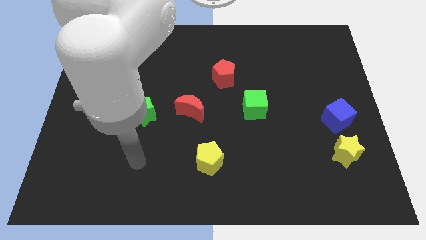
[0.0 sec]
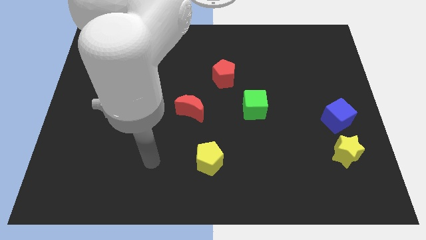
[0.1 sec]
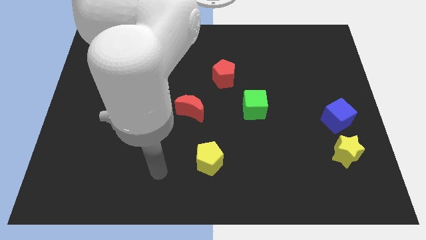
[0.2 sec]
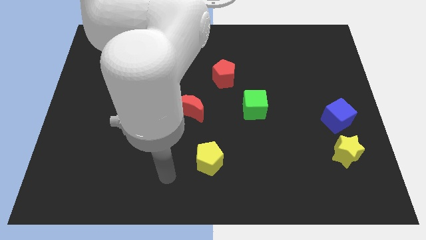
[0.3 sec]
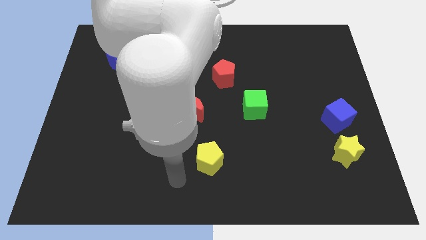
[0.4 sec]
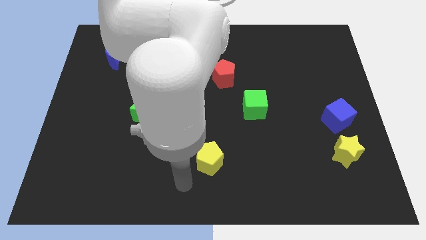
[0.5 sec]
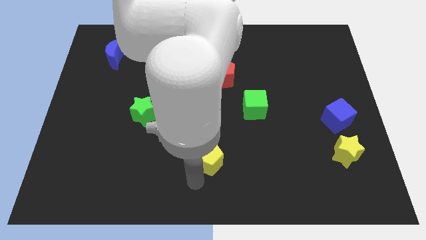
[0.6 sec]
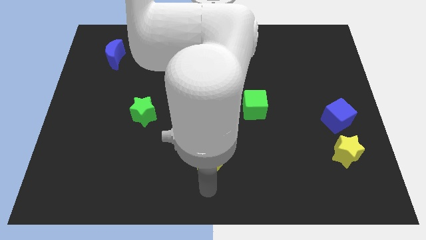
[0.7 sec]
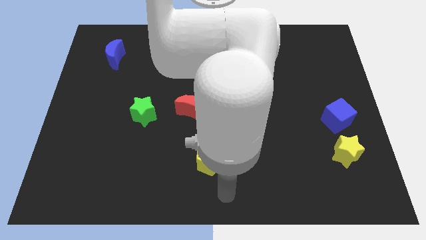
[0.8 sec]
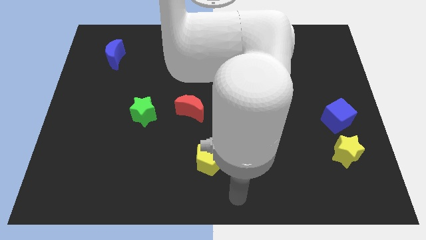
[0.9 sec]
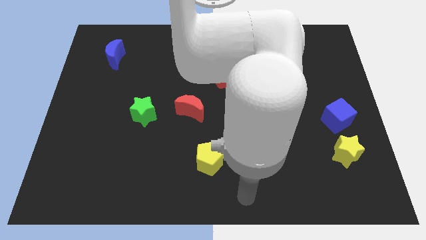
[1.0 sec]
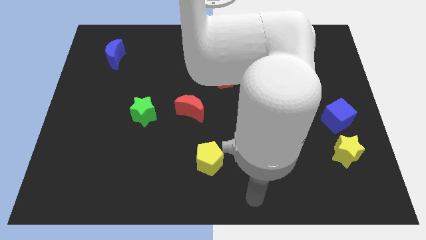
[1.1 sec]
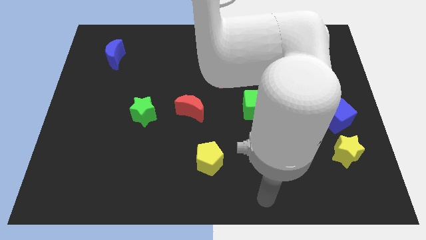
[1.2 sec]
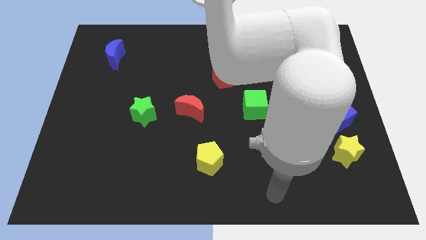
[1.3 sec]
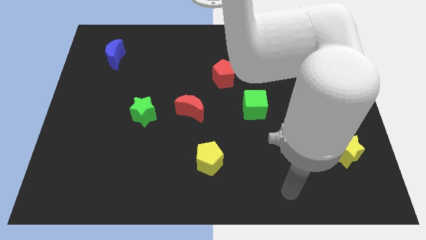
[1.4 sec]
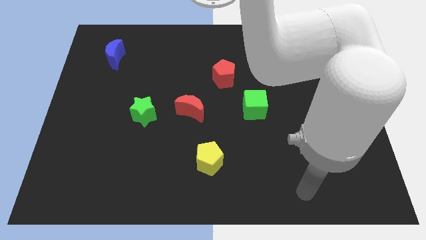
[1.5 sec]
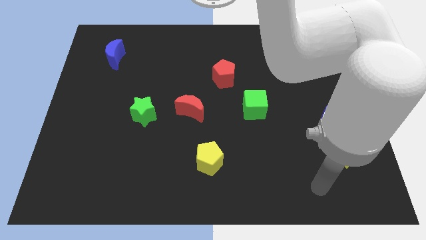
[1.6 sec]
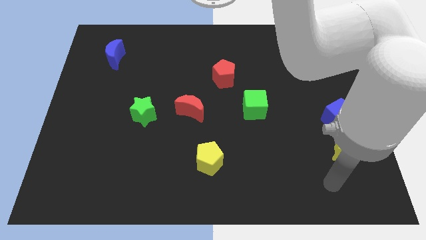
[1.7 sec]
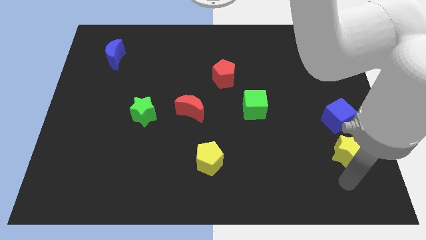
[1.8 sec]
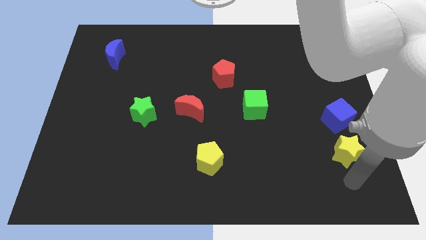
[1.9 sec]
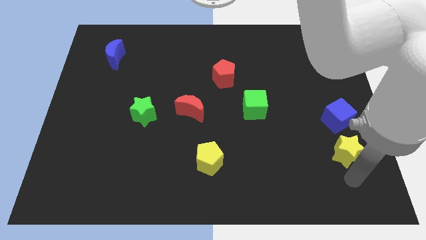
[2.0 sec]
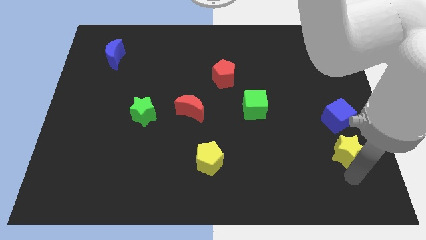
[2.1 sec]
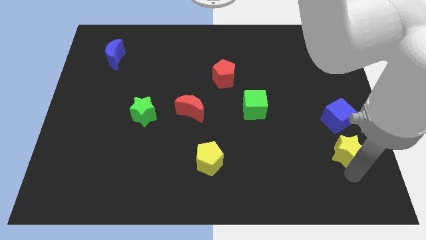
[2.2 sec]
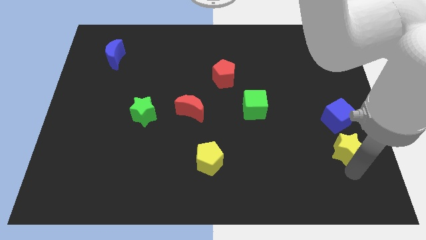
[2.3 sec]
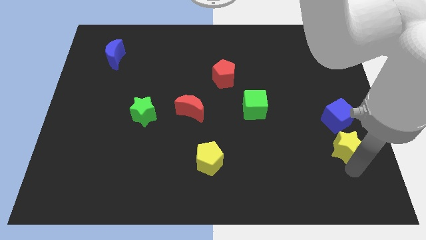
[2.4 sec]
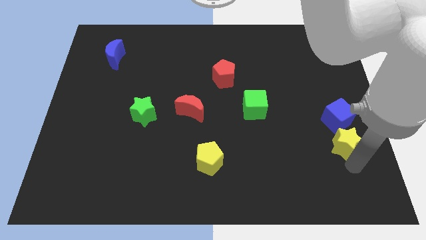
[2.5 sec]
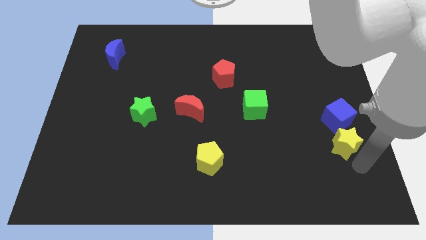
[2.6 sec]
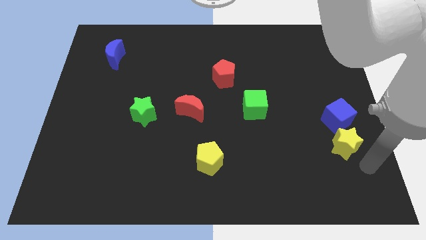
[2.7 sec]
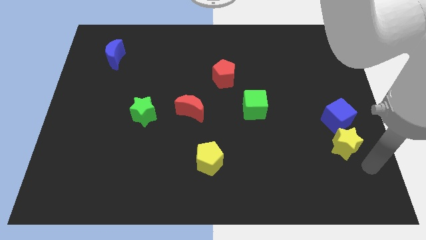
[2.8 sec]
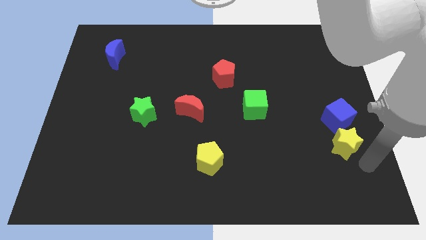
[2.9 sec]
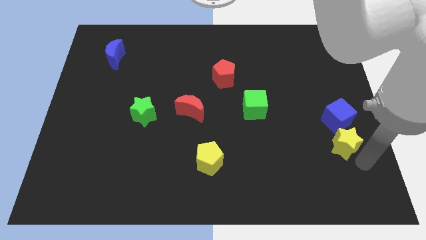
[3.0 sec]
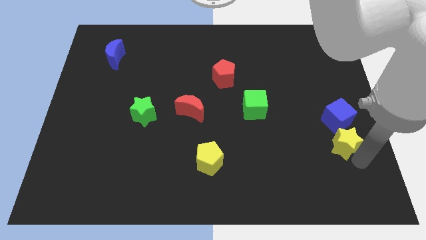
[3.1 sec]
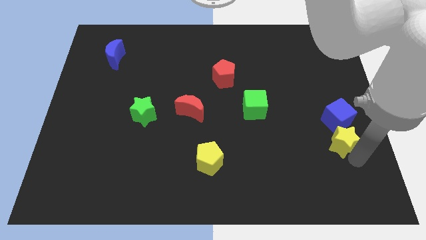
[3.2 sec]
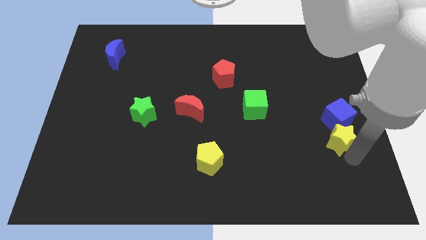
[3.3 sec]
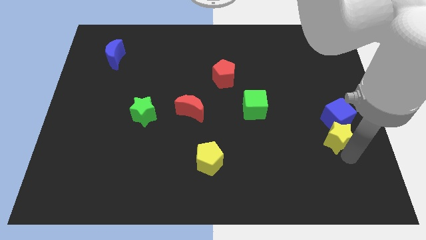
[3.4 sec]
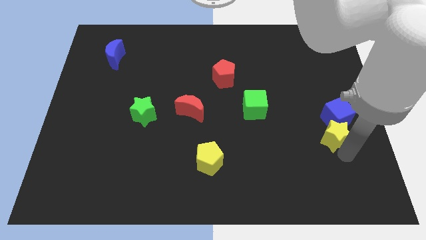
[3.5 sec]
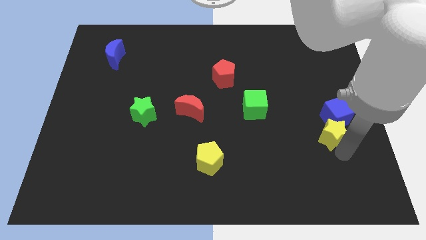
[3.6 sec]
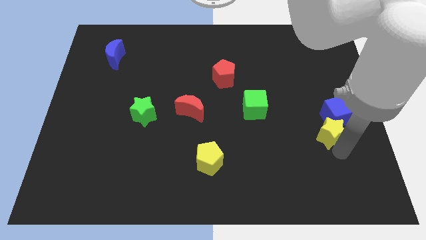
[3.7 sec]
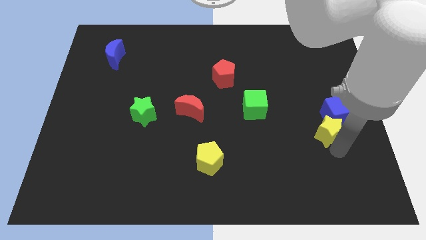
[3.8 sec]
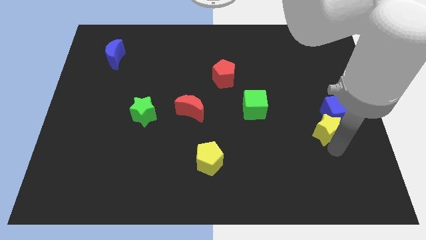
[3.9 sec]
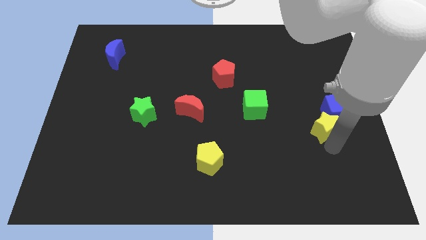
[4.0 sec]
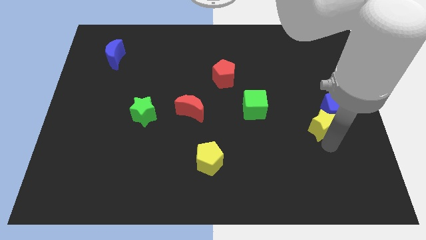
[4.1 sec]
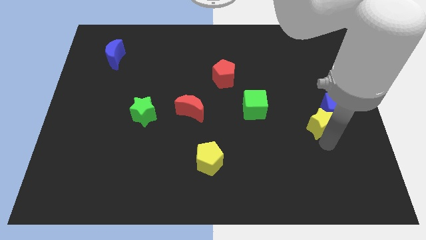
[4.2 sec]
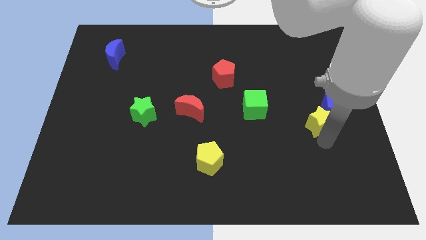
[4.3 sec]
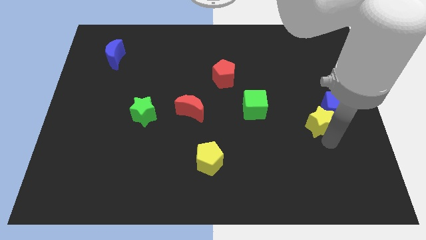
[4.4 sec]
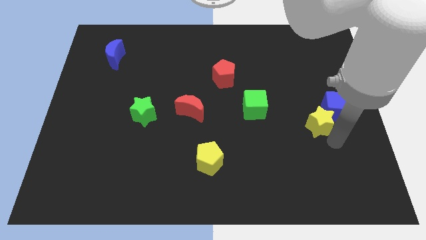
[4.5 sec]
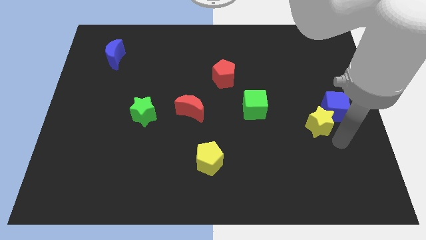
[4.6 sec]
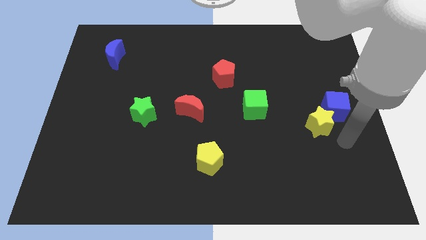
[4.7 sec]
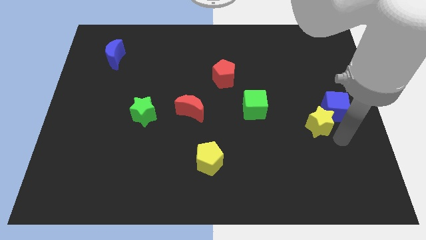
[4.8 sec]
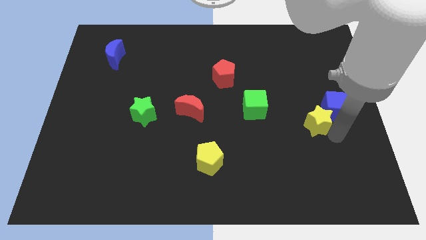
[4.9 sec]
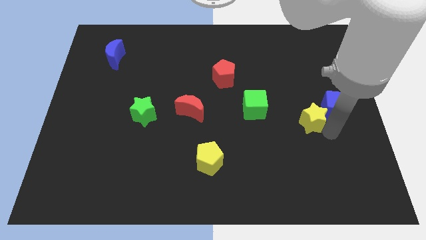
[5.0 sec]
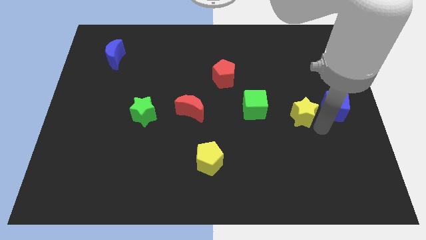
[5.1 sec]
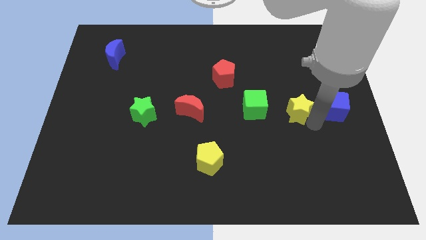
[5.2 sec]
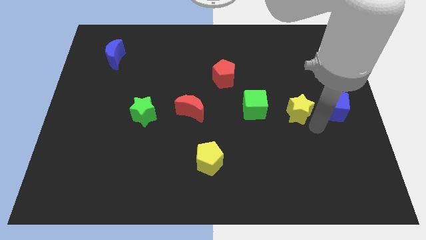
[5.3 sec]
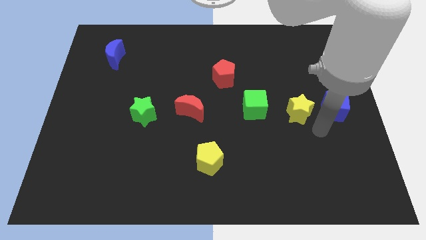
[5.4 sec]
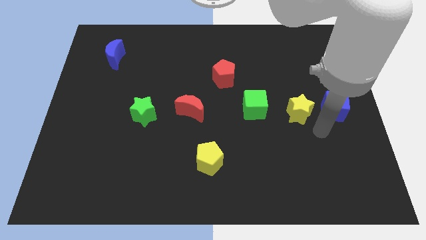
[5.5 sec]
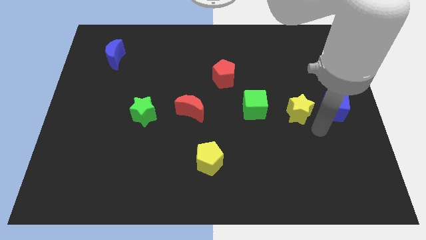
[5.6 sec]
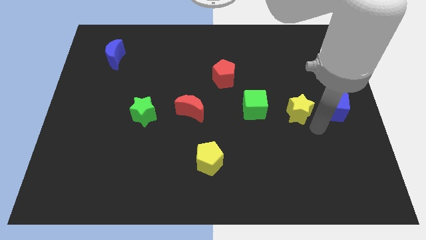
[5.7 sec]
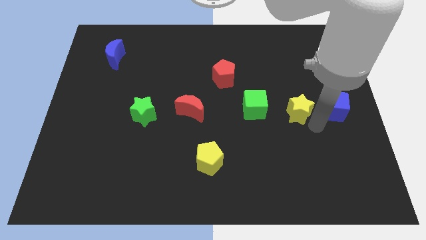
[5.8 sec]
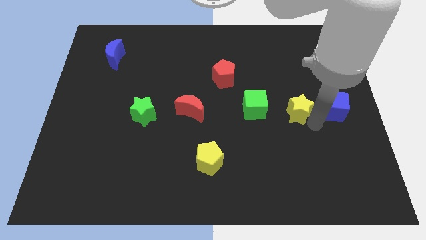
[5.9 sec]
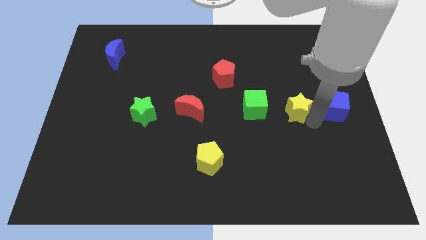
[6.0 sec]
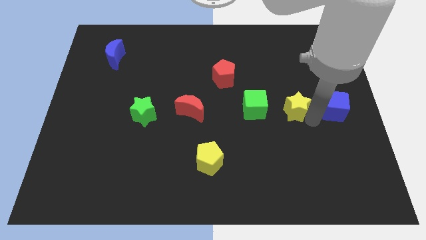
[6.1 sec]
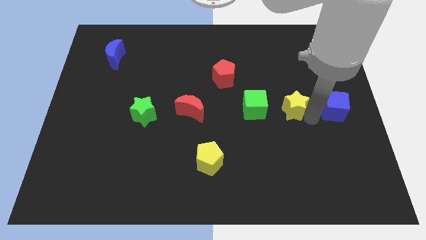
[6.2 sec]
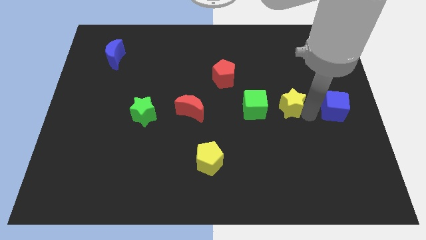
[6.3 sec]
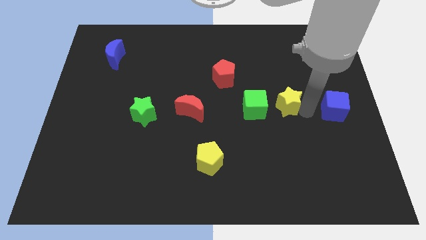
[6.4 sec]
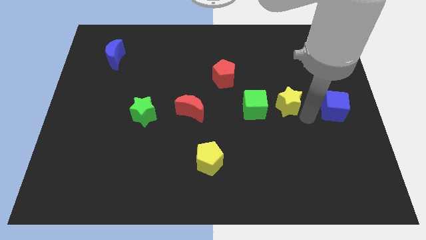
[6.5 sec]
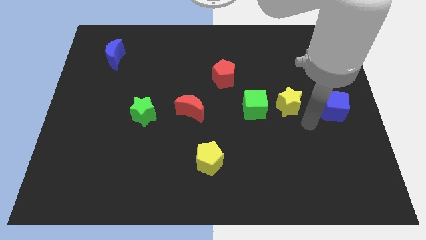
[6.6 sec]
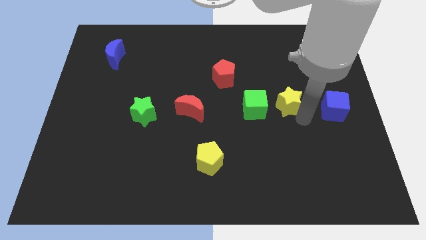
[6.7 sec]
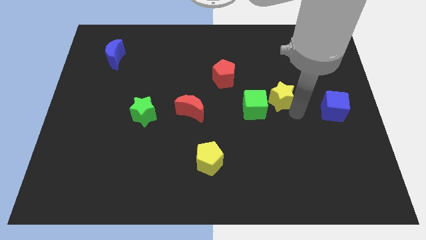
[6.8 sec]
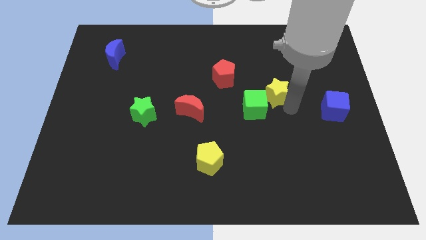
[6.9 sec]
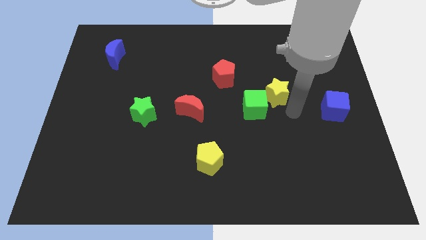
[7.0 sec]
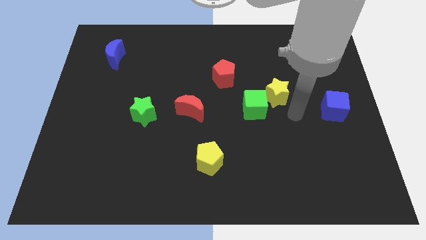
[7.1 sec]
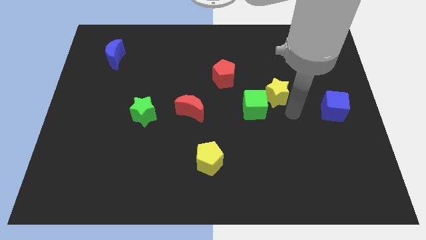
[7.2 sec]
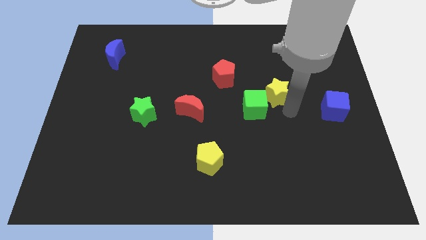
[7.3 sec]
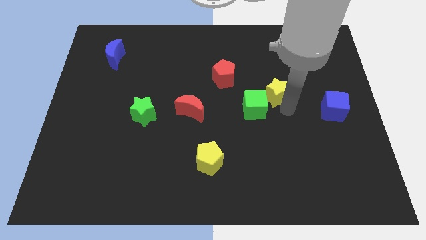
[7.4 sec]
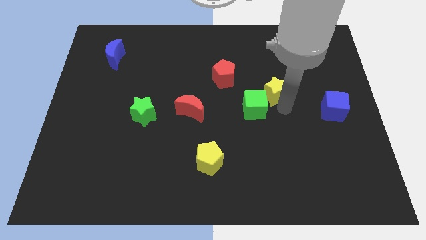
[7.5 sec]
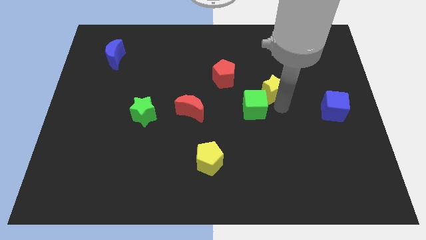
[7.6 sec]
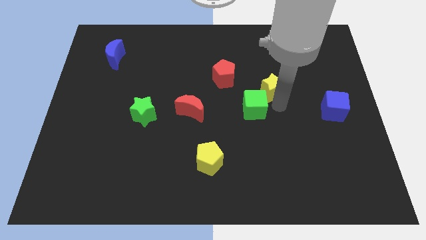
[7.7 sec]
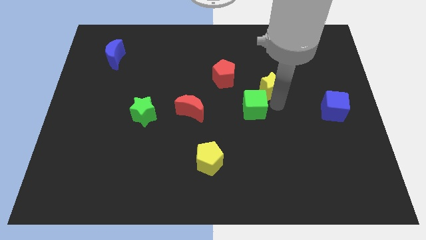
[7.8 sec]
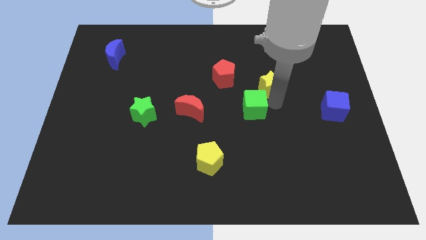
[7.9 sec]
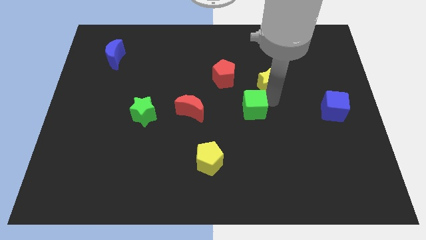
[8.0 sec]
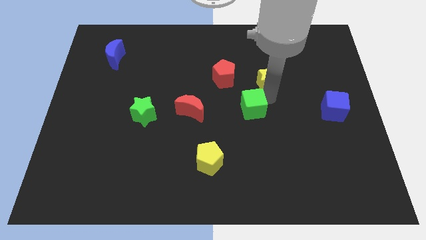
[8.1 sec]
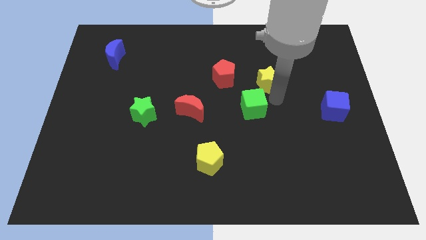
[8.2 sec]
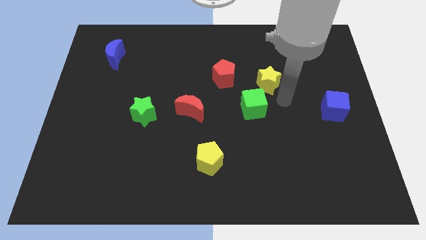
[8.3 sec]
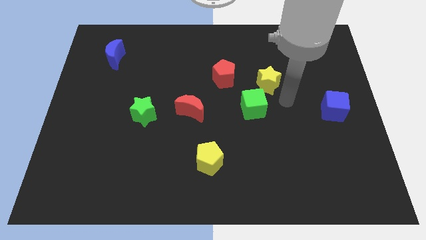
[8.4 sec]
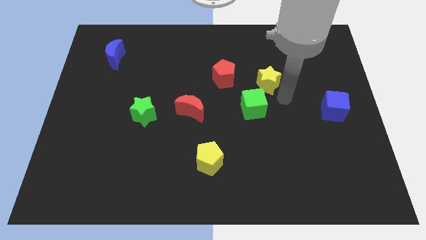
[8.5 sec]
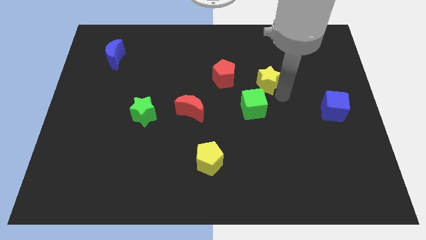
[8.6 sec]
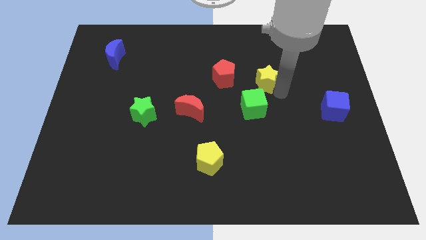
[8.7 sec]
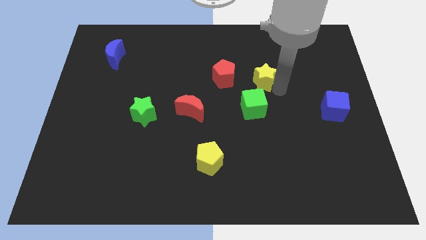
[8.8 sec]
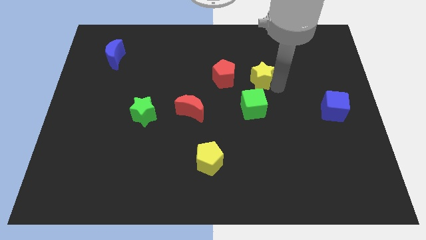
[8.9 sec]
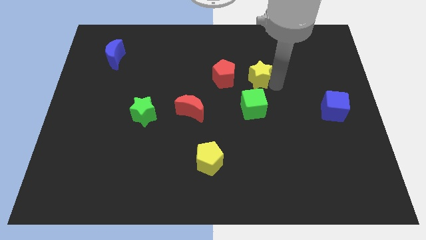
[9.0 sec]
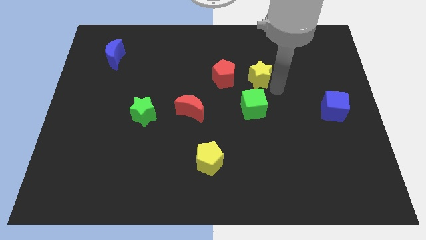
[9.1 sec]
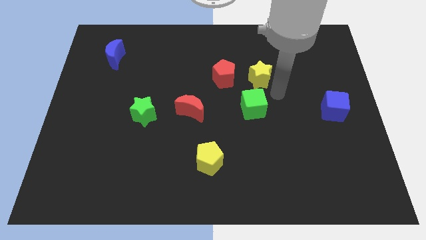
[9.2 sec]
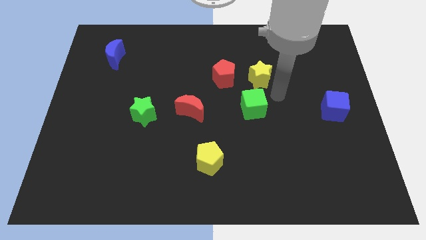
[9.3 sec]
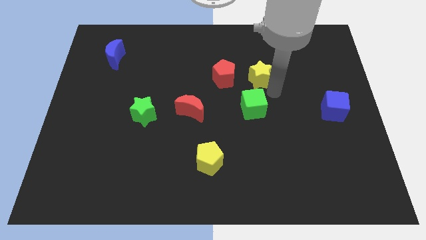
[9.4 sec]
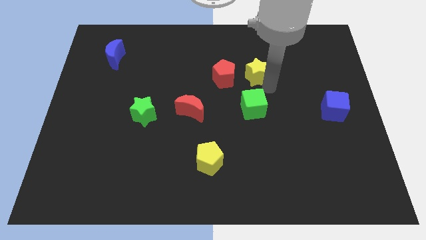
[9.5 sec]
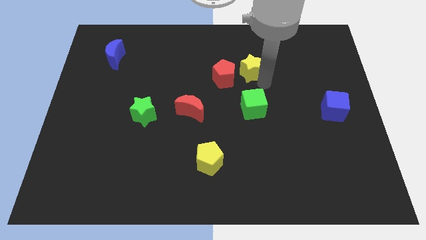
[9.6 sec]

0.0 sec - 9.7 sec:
push the yellow star to the top right of the red pentagon
